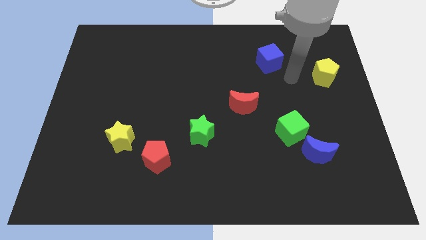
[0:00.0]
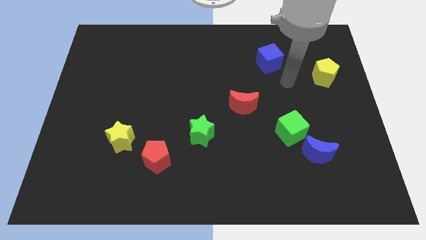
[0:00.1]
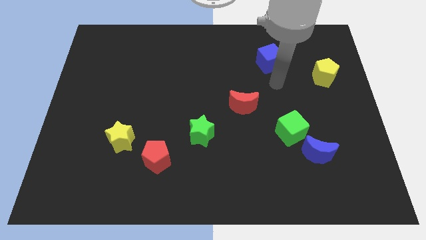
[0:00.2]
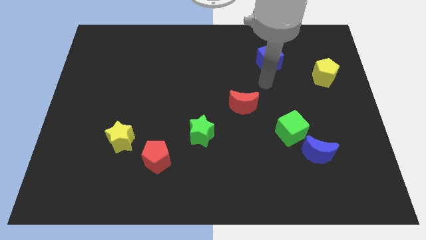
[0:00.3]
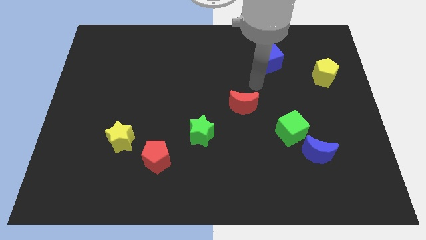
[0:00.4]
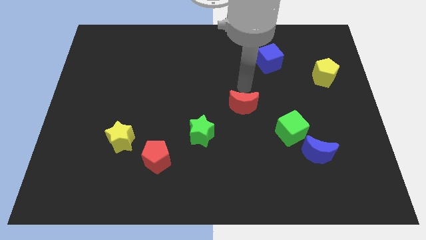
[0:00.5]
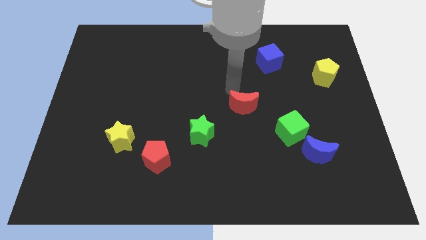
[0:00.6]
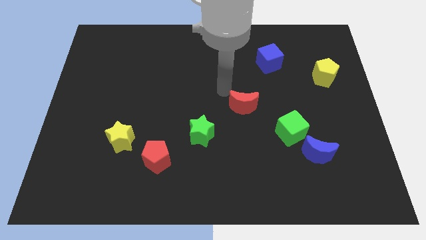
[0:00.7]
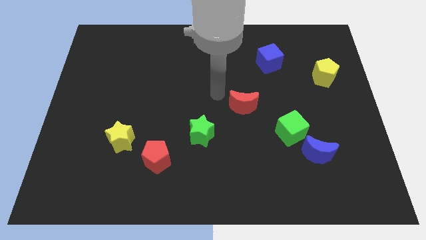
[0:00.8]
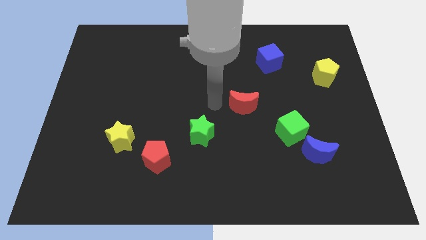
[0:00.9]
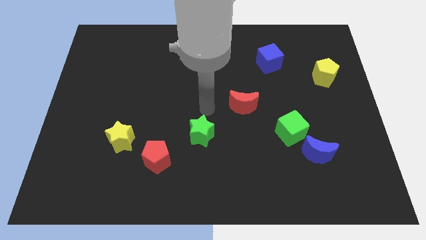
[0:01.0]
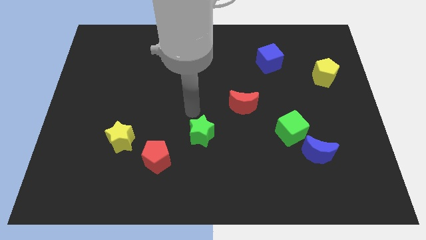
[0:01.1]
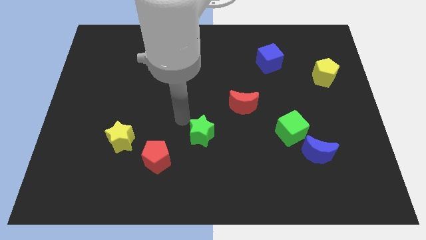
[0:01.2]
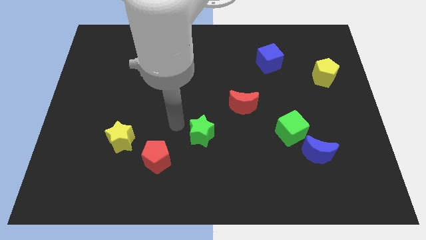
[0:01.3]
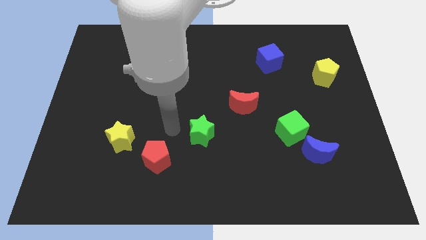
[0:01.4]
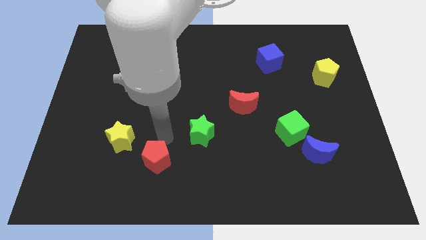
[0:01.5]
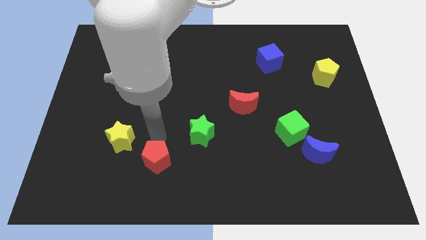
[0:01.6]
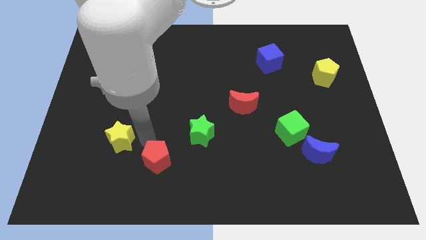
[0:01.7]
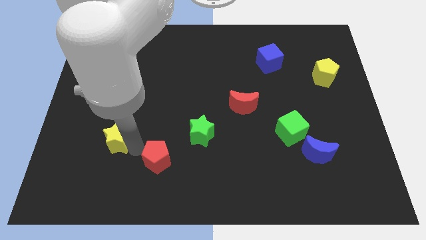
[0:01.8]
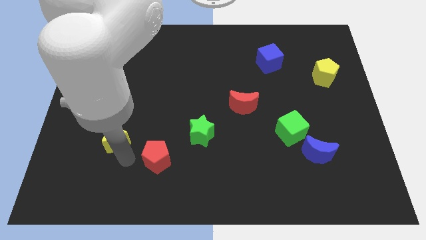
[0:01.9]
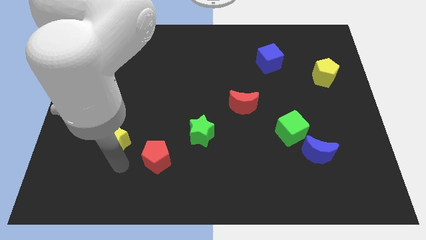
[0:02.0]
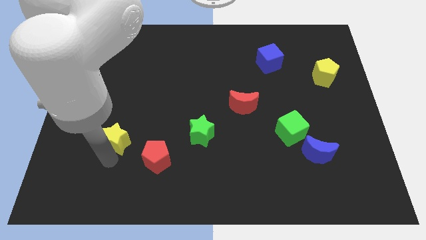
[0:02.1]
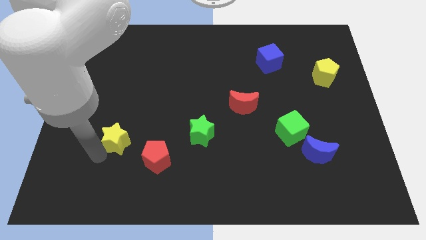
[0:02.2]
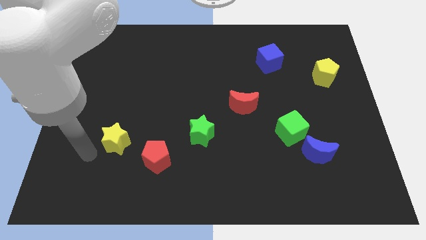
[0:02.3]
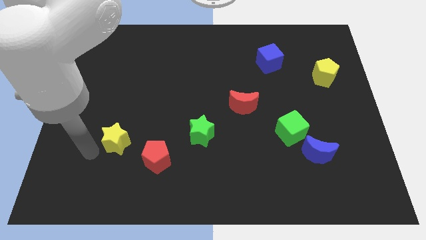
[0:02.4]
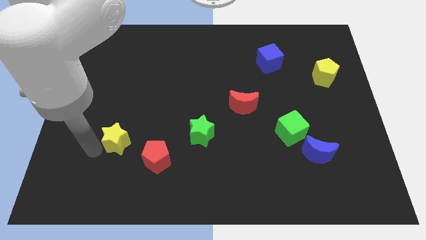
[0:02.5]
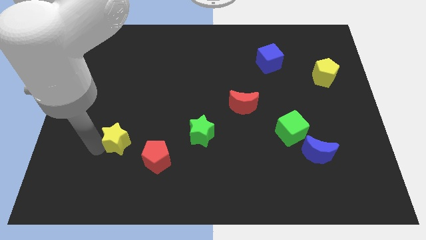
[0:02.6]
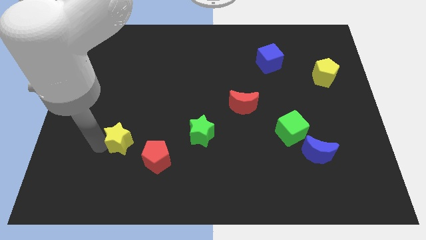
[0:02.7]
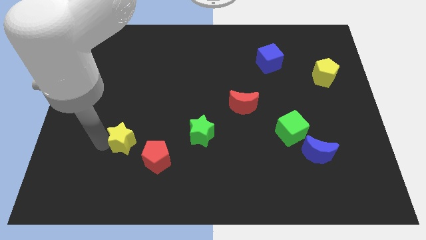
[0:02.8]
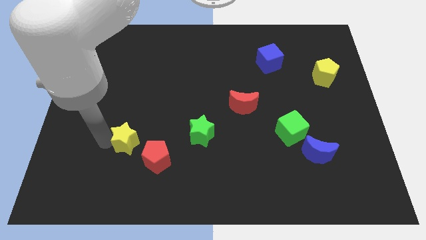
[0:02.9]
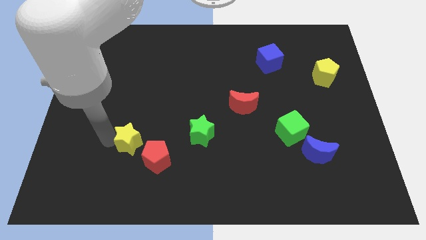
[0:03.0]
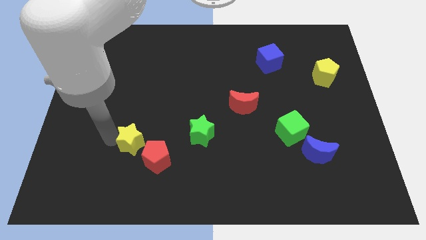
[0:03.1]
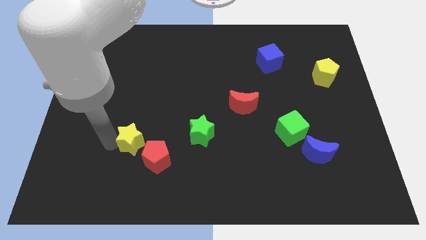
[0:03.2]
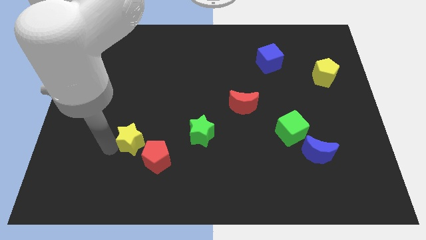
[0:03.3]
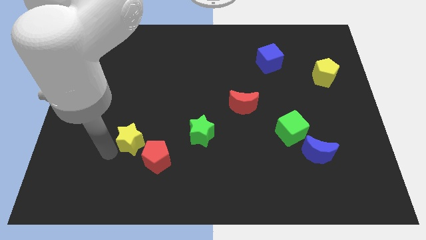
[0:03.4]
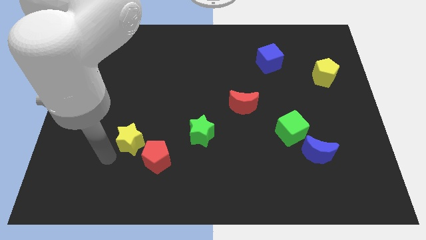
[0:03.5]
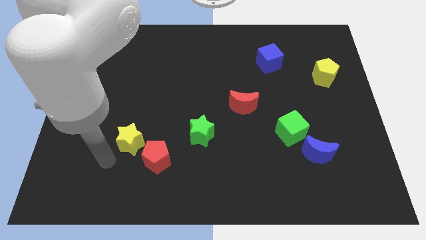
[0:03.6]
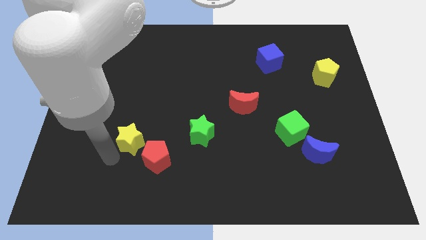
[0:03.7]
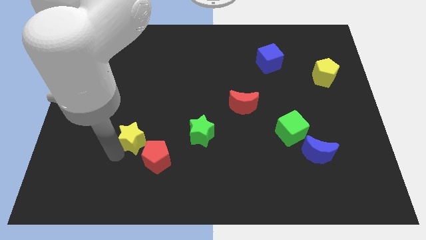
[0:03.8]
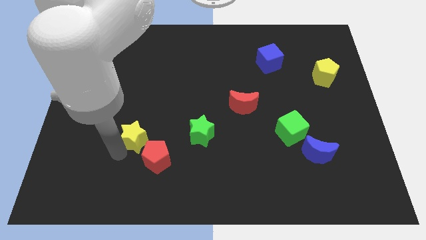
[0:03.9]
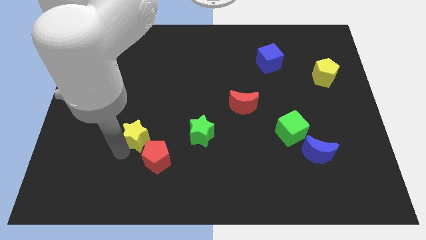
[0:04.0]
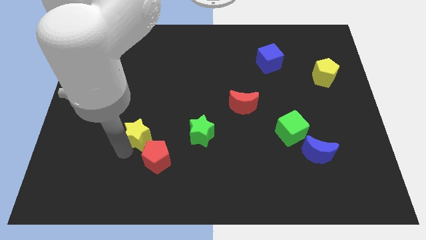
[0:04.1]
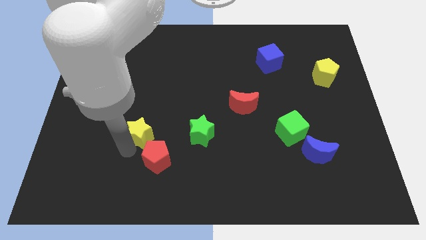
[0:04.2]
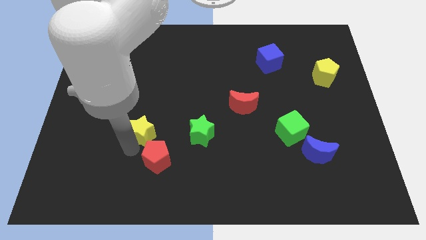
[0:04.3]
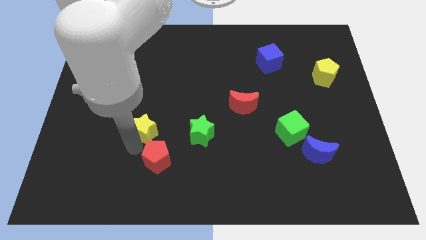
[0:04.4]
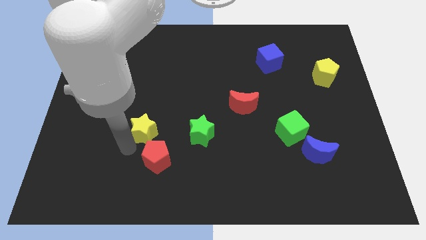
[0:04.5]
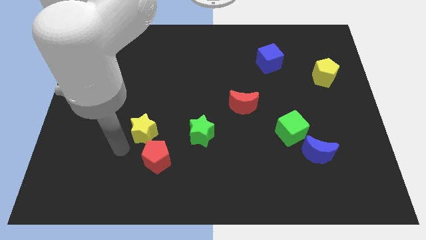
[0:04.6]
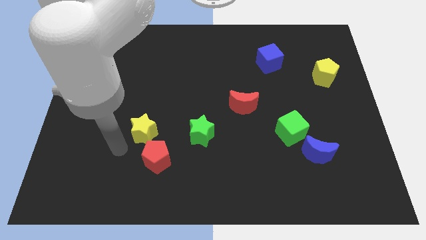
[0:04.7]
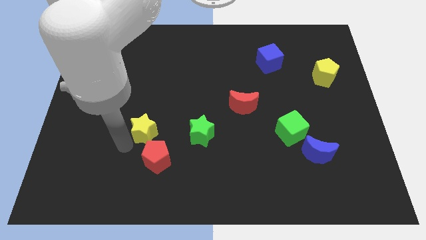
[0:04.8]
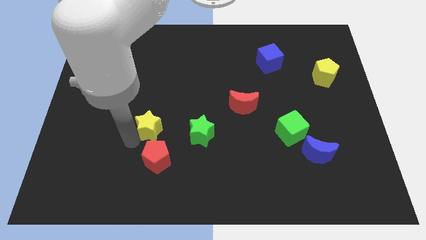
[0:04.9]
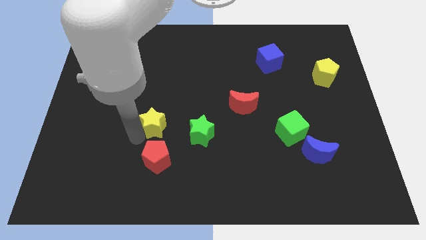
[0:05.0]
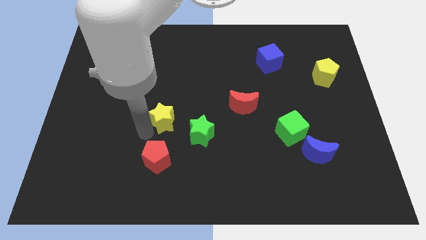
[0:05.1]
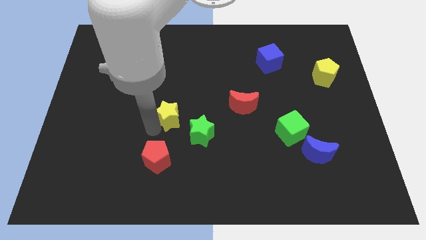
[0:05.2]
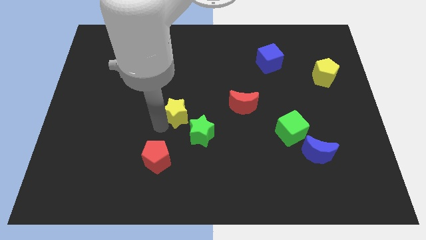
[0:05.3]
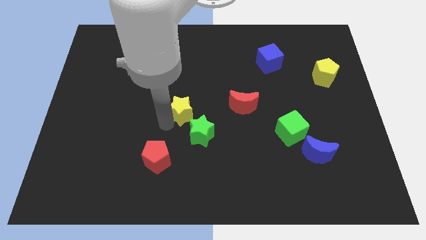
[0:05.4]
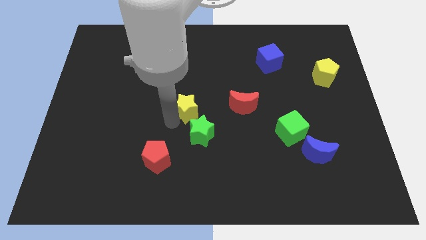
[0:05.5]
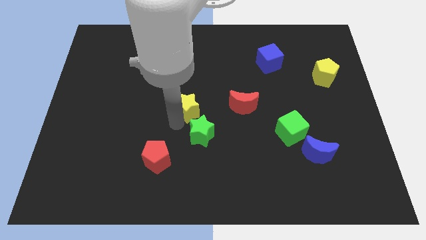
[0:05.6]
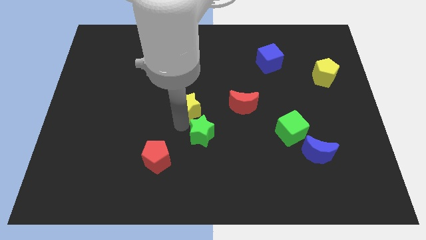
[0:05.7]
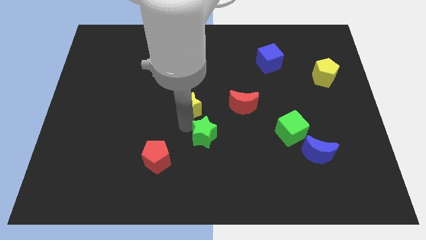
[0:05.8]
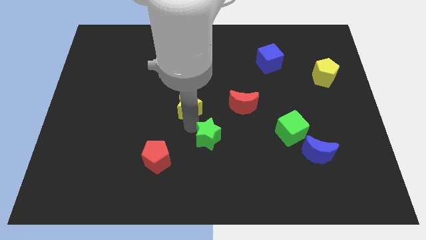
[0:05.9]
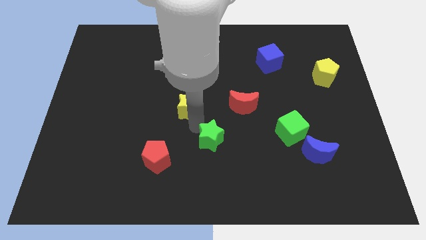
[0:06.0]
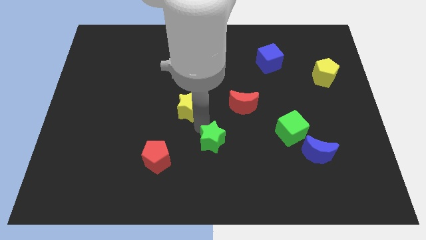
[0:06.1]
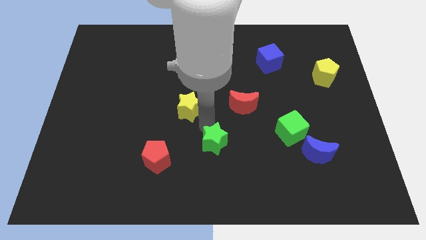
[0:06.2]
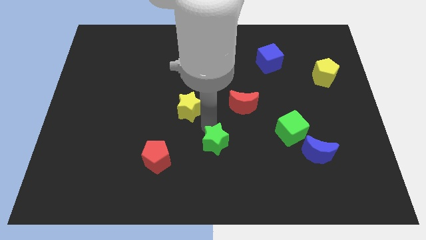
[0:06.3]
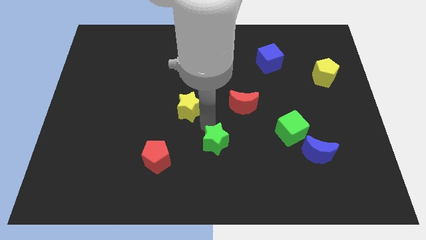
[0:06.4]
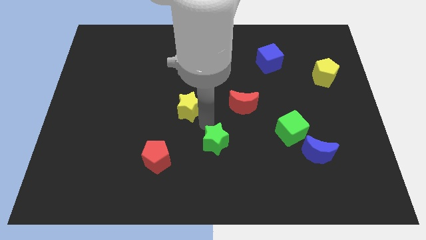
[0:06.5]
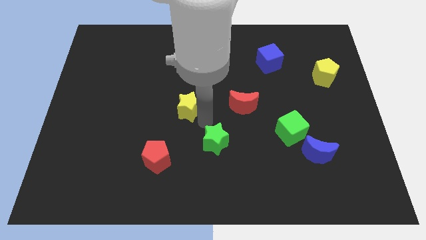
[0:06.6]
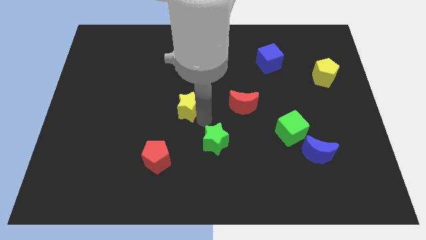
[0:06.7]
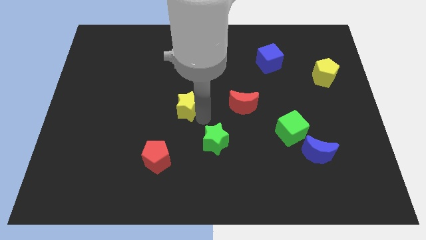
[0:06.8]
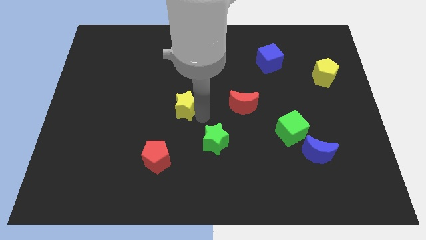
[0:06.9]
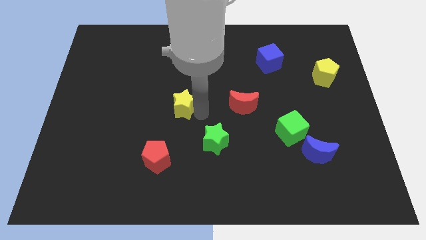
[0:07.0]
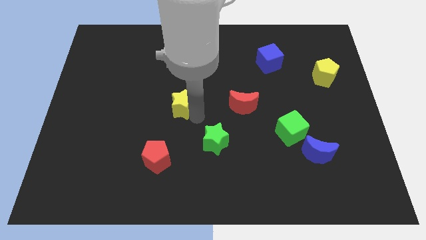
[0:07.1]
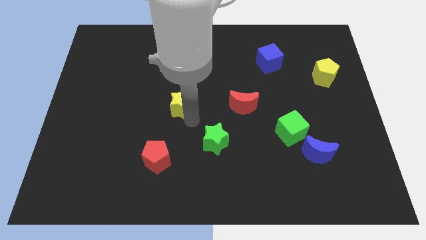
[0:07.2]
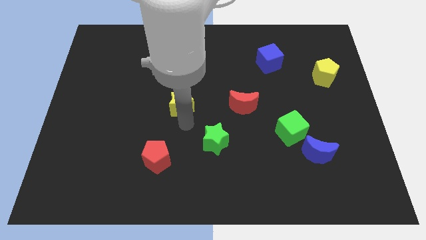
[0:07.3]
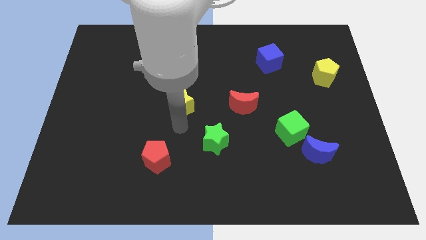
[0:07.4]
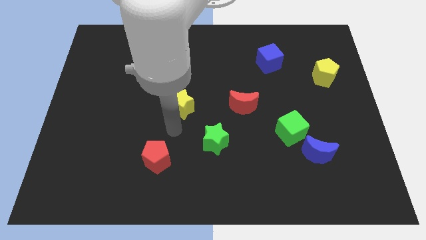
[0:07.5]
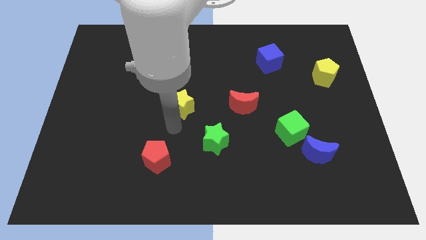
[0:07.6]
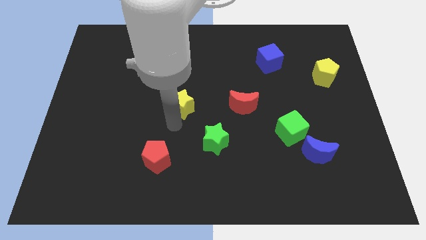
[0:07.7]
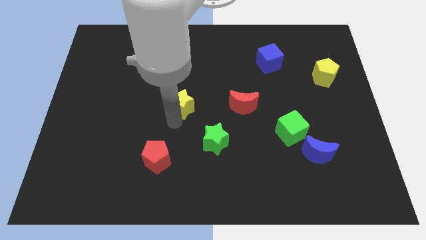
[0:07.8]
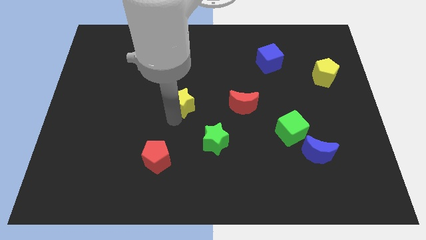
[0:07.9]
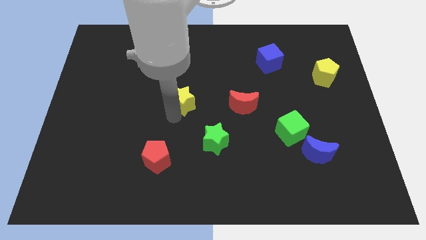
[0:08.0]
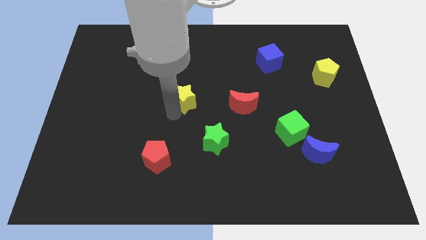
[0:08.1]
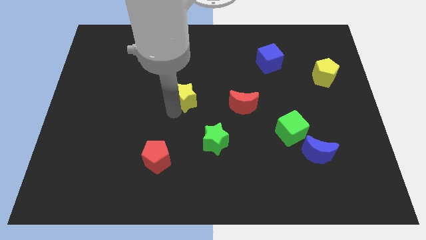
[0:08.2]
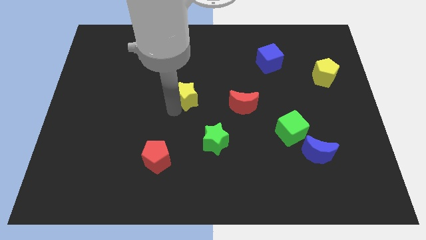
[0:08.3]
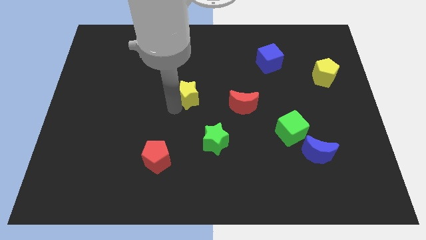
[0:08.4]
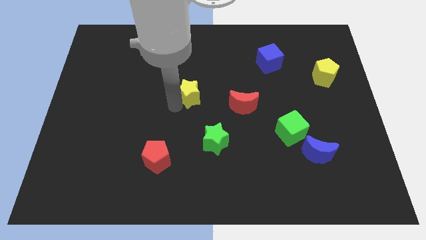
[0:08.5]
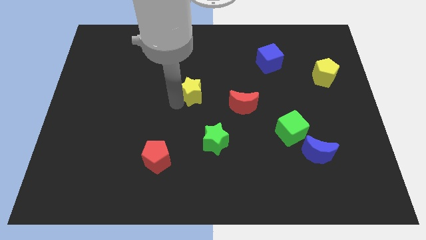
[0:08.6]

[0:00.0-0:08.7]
push the yellow star up and then right
